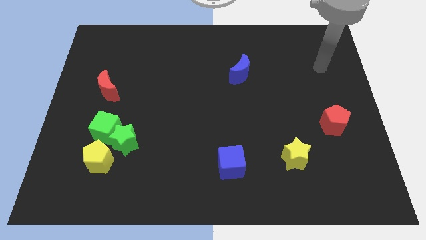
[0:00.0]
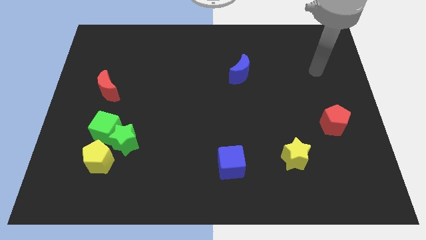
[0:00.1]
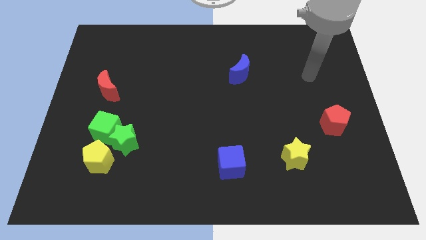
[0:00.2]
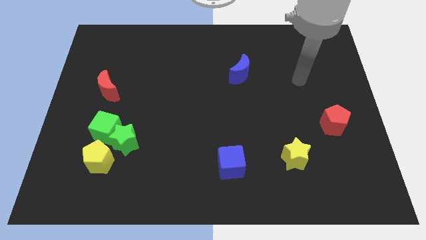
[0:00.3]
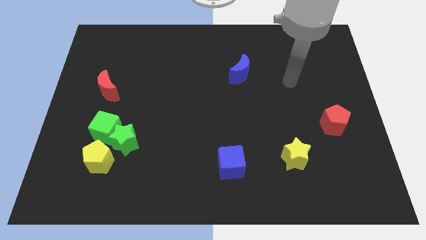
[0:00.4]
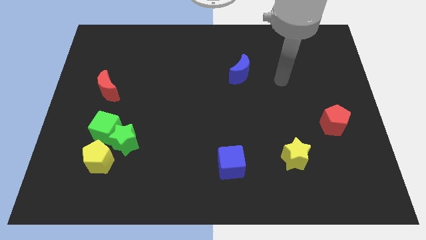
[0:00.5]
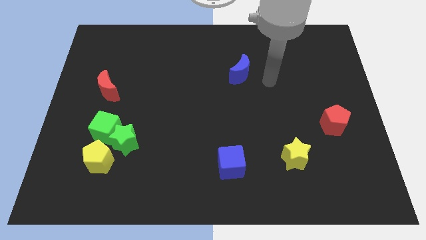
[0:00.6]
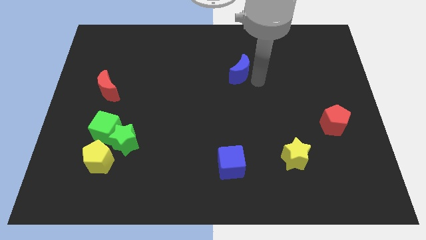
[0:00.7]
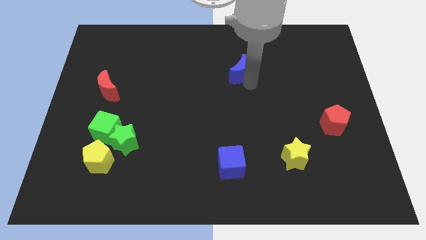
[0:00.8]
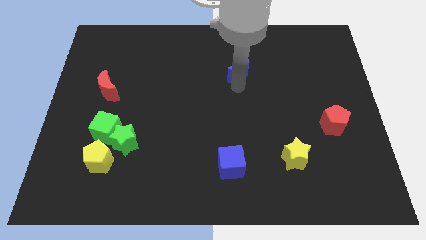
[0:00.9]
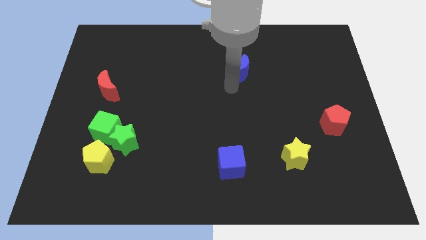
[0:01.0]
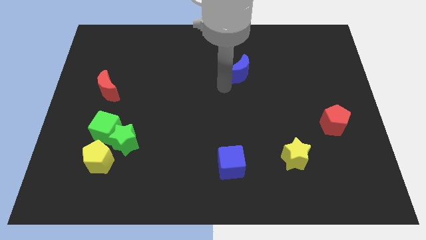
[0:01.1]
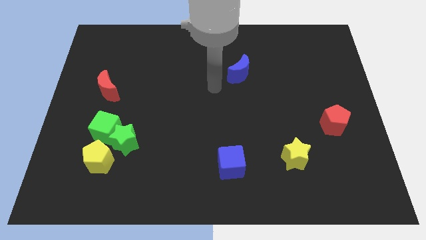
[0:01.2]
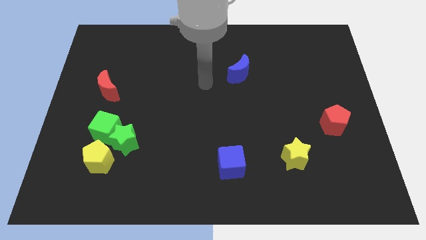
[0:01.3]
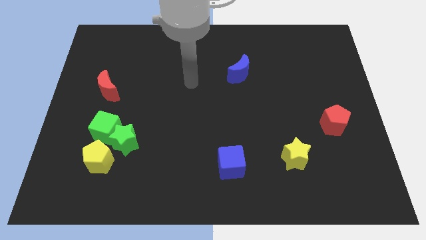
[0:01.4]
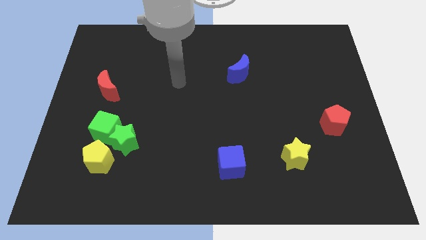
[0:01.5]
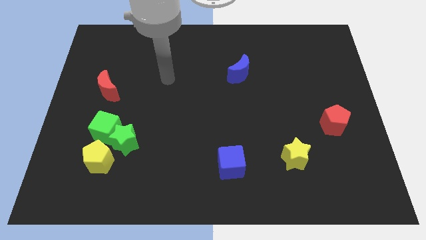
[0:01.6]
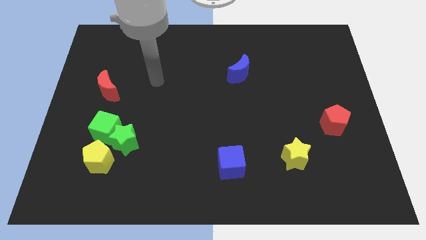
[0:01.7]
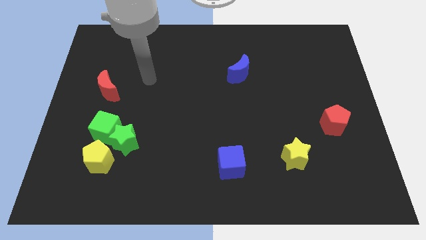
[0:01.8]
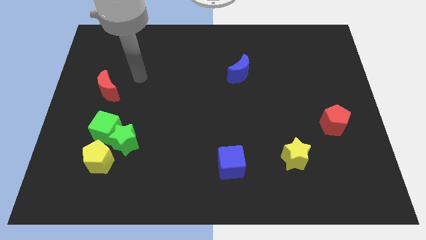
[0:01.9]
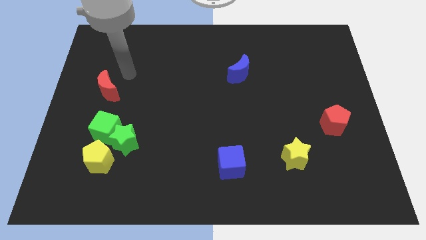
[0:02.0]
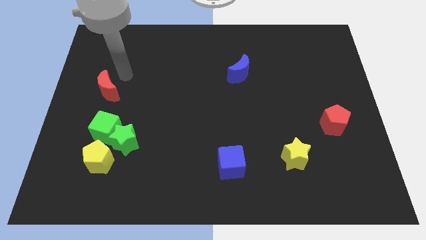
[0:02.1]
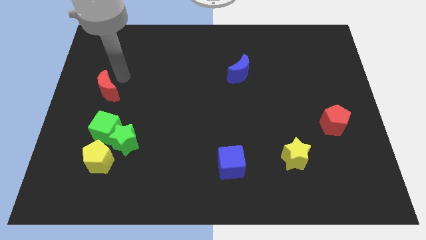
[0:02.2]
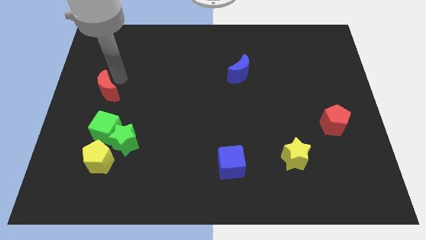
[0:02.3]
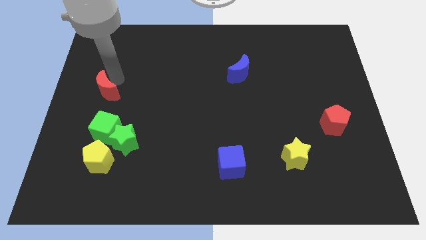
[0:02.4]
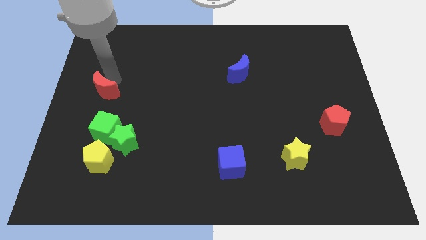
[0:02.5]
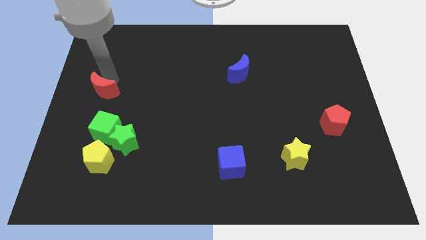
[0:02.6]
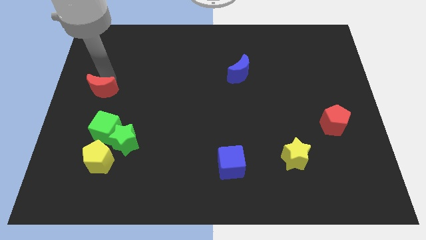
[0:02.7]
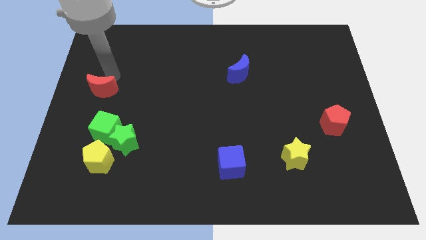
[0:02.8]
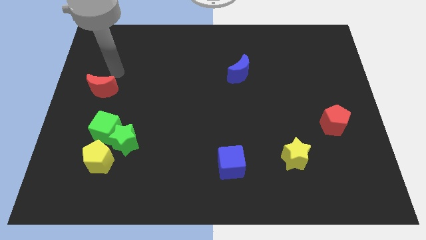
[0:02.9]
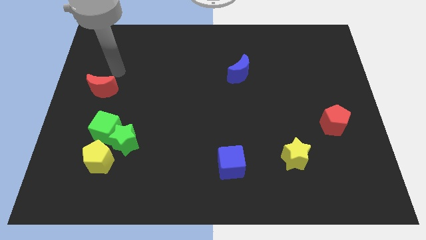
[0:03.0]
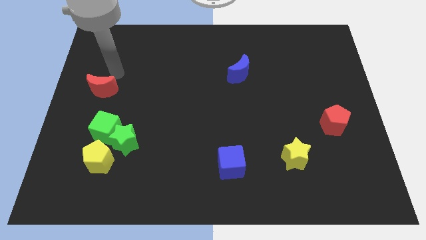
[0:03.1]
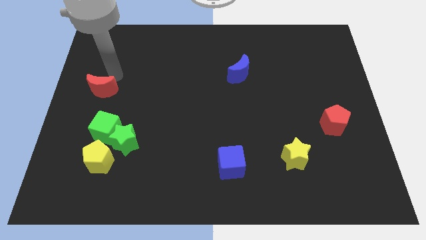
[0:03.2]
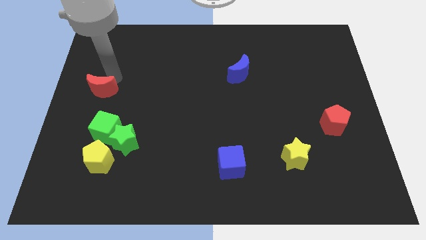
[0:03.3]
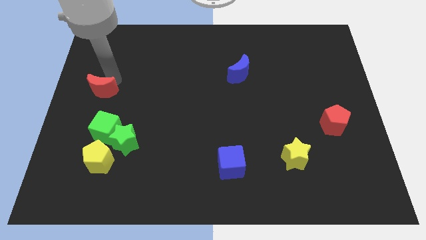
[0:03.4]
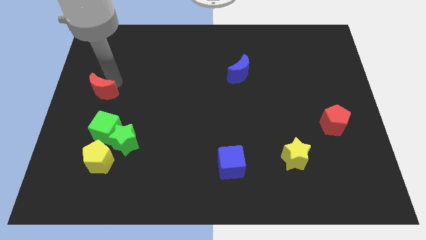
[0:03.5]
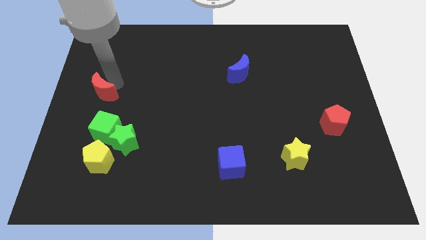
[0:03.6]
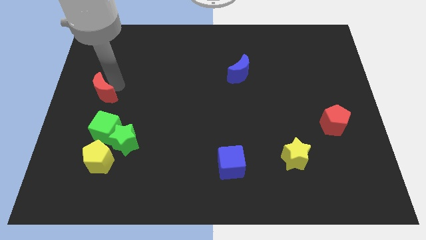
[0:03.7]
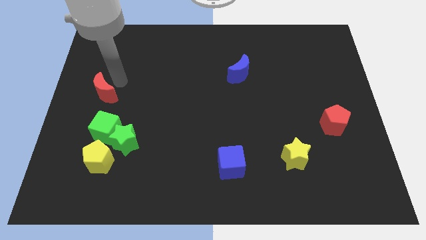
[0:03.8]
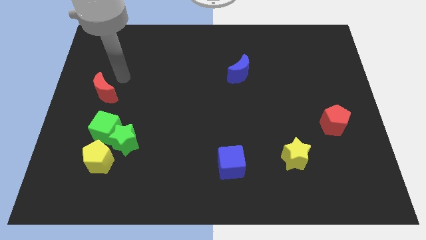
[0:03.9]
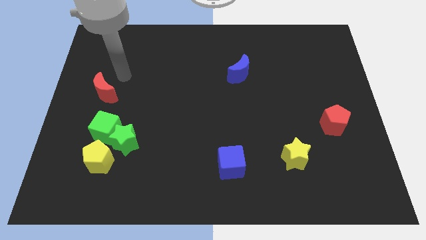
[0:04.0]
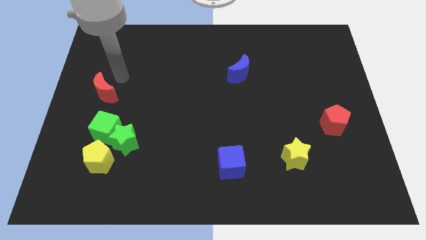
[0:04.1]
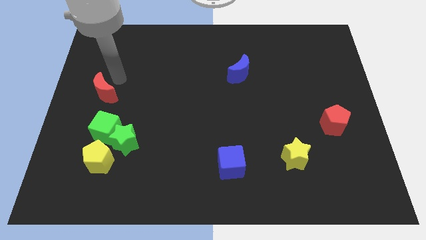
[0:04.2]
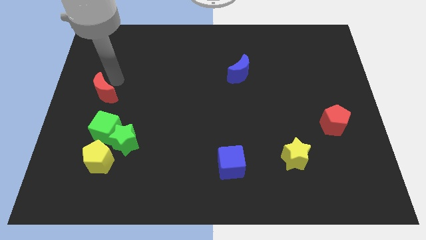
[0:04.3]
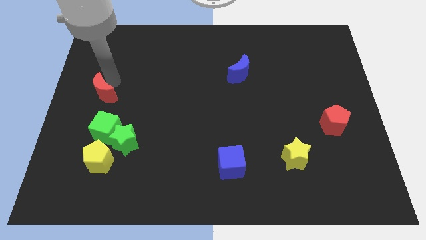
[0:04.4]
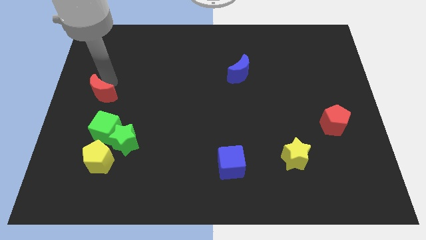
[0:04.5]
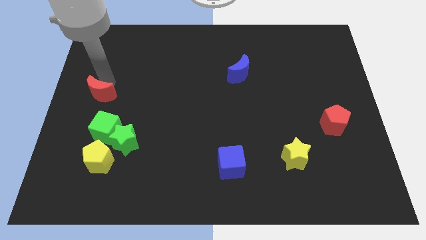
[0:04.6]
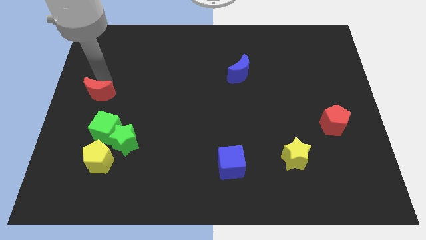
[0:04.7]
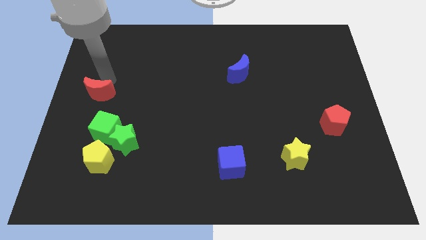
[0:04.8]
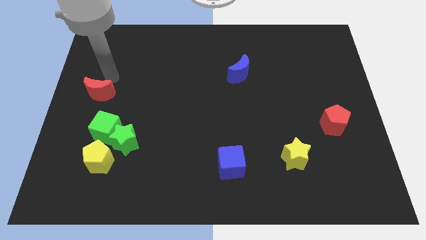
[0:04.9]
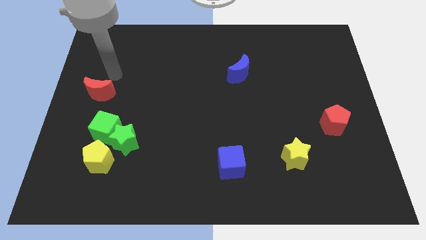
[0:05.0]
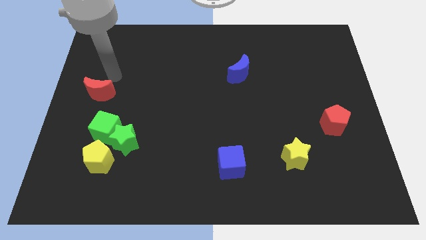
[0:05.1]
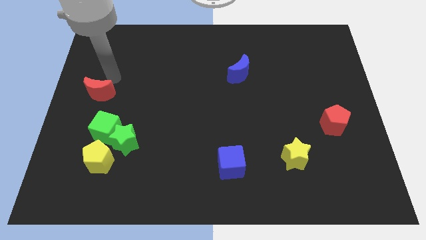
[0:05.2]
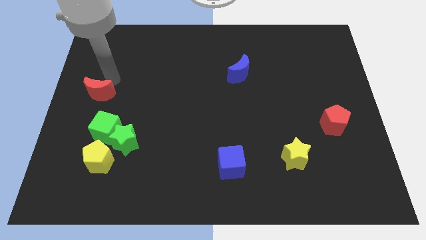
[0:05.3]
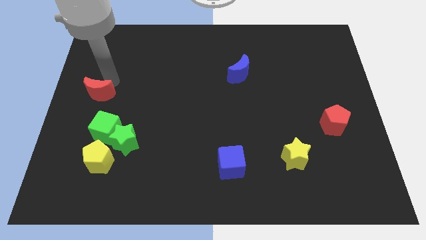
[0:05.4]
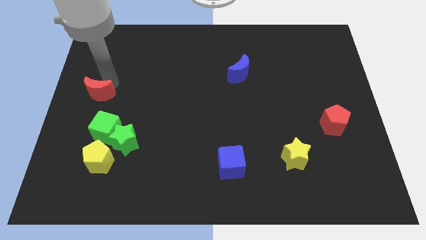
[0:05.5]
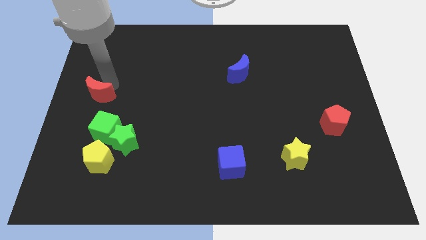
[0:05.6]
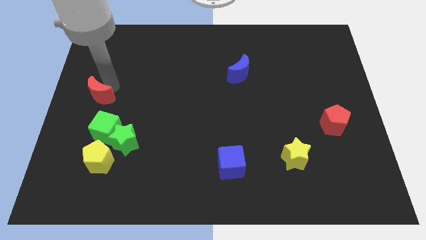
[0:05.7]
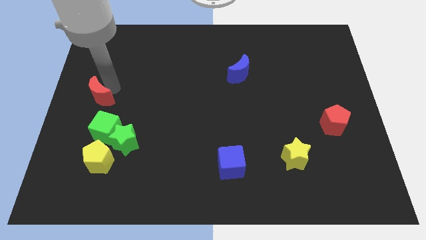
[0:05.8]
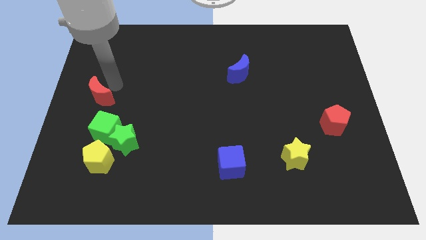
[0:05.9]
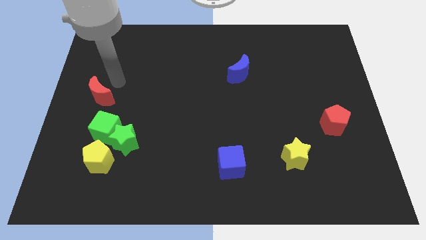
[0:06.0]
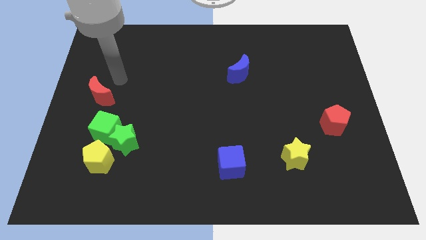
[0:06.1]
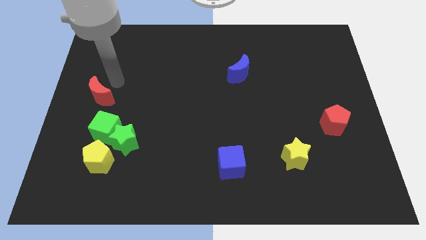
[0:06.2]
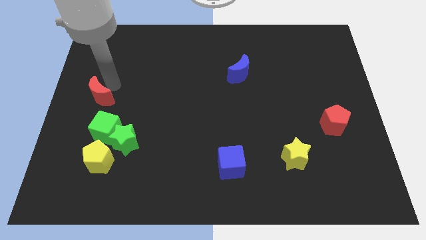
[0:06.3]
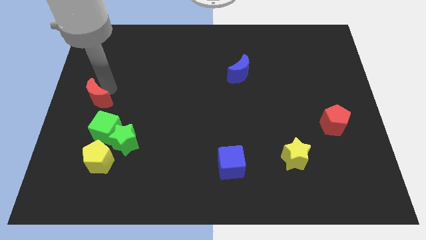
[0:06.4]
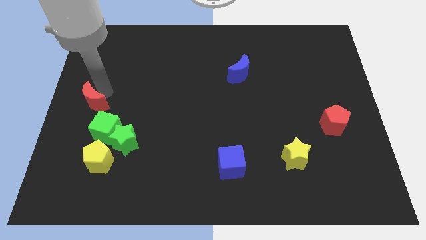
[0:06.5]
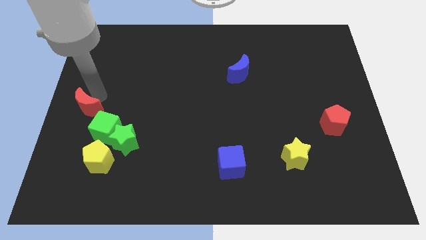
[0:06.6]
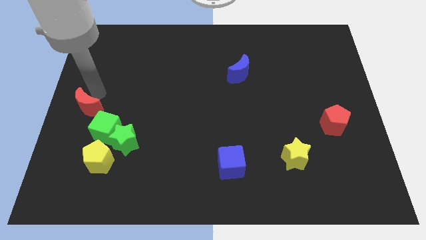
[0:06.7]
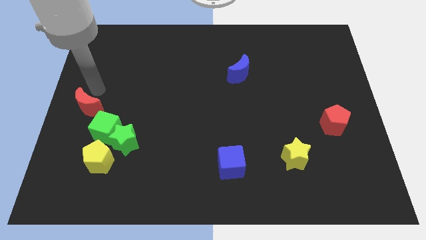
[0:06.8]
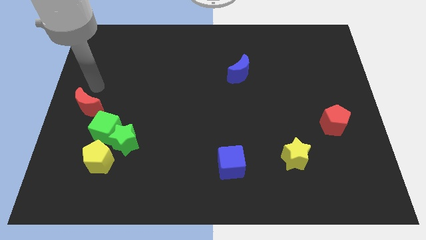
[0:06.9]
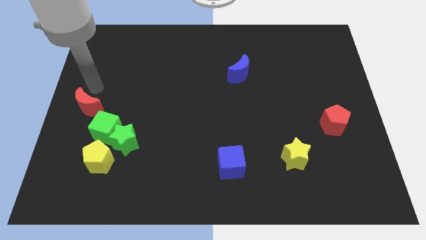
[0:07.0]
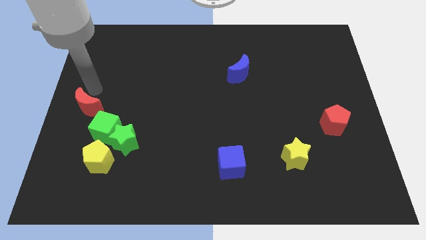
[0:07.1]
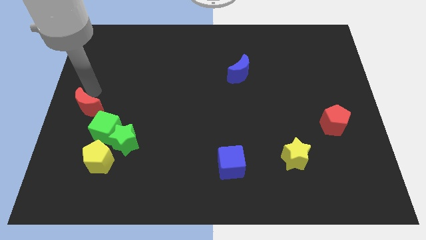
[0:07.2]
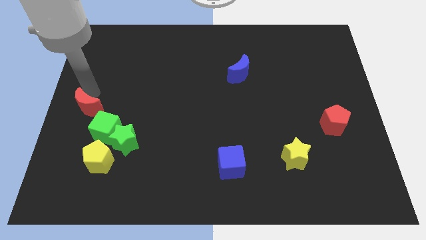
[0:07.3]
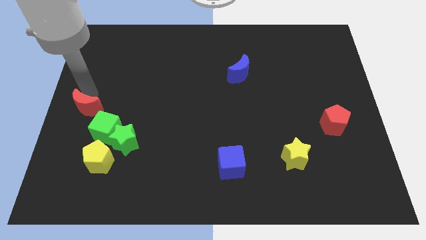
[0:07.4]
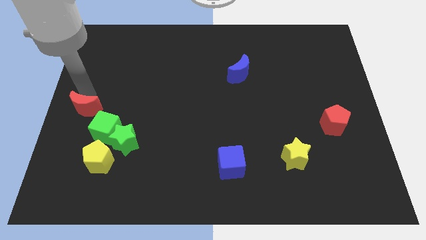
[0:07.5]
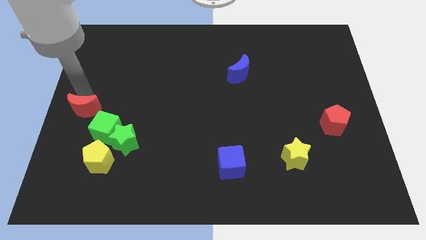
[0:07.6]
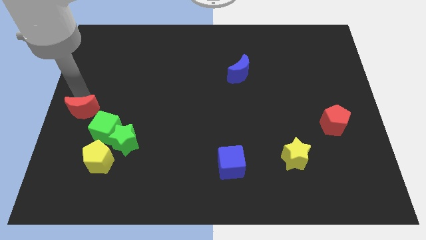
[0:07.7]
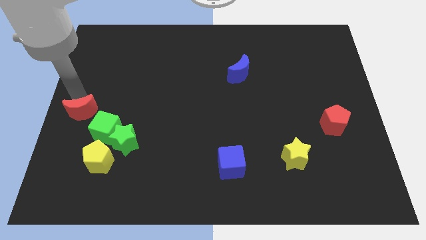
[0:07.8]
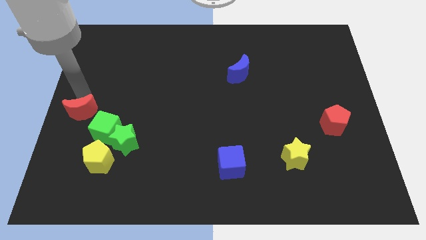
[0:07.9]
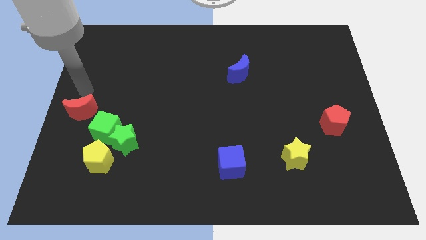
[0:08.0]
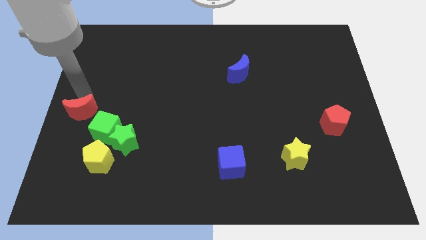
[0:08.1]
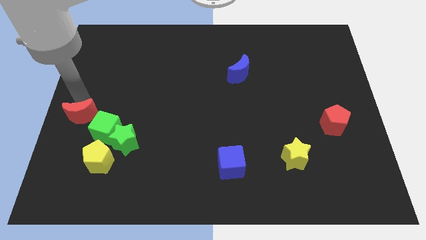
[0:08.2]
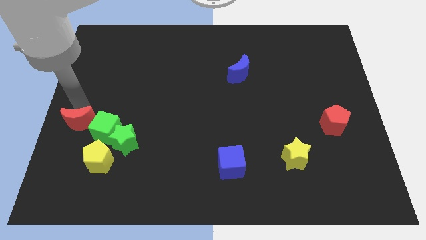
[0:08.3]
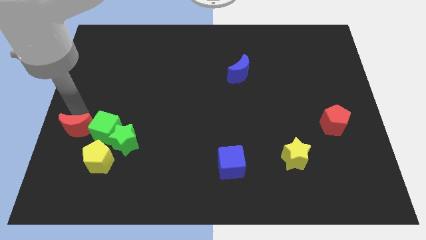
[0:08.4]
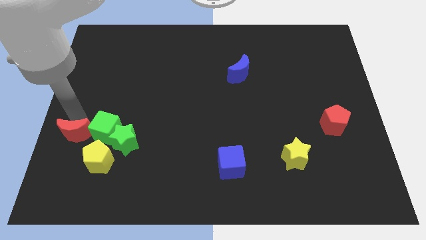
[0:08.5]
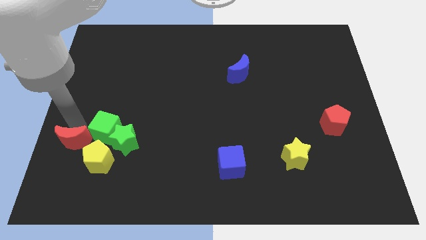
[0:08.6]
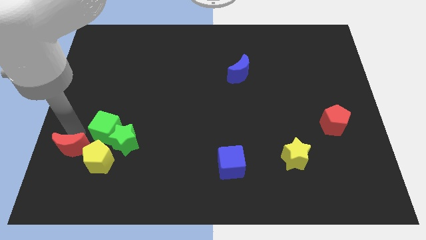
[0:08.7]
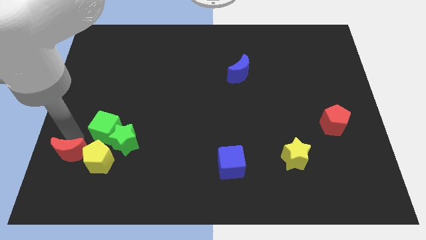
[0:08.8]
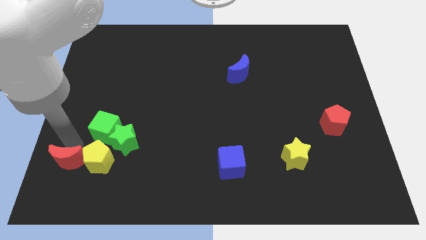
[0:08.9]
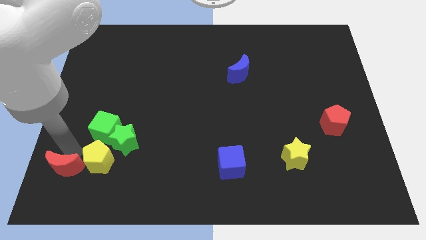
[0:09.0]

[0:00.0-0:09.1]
slide the red moon to the lower left corner
